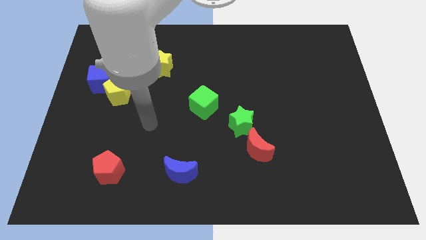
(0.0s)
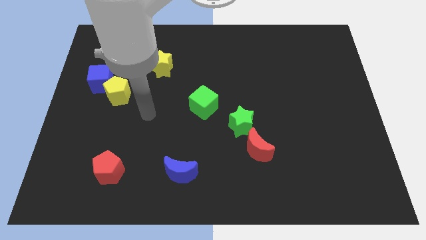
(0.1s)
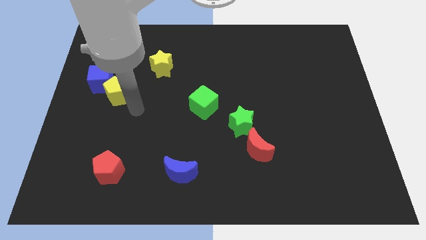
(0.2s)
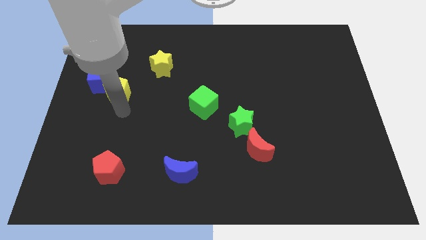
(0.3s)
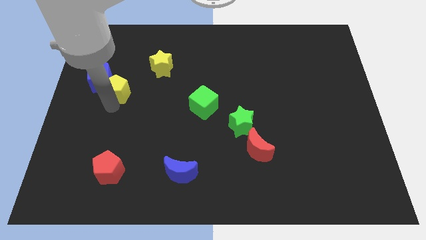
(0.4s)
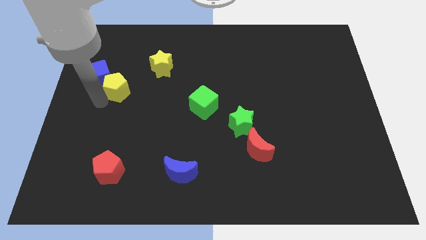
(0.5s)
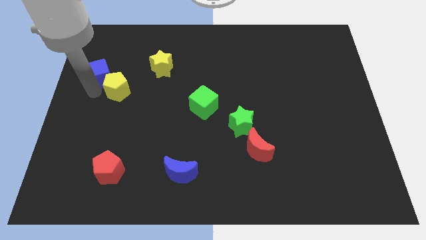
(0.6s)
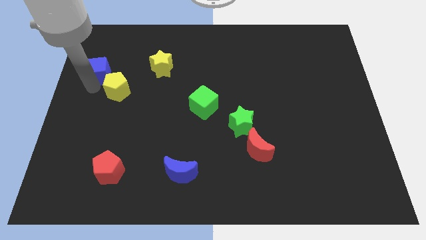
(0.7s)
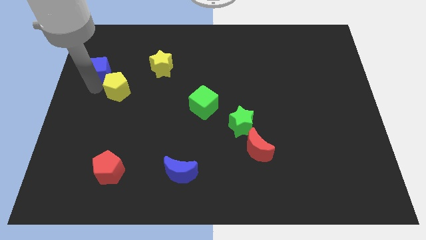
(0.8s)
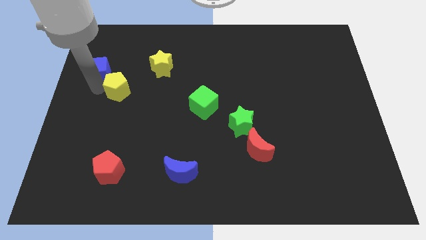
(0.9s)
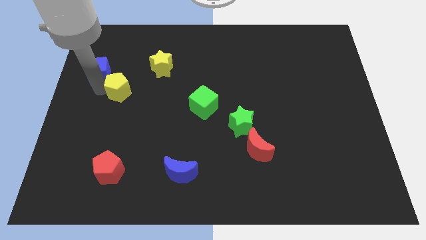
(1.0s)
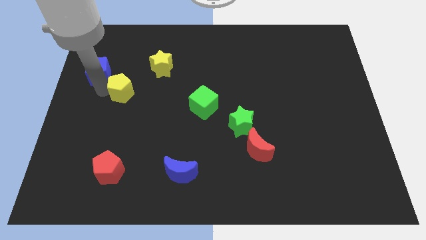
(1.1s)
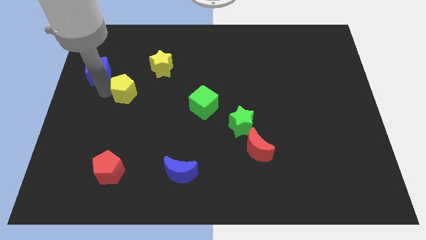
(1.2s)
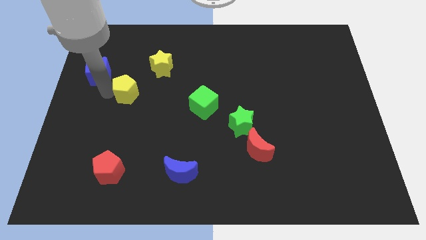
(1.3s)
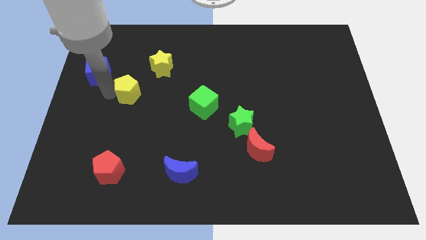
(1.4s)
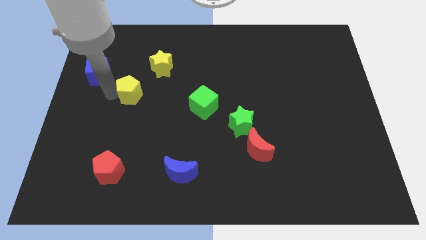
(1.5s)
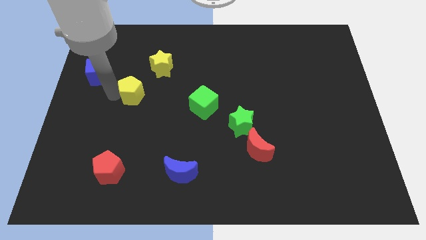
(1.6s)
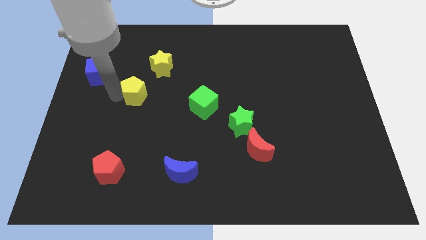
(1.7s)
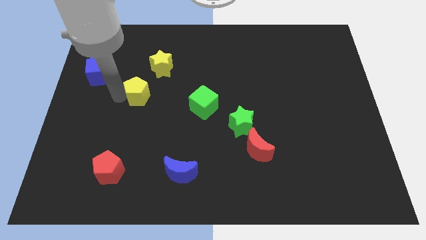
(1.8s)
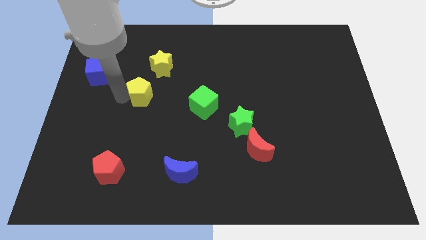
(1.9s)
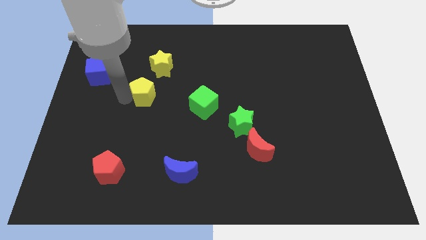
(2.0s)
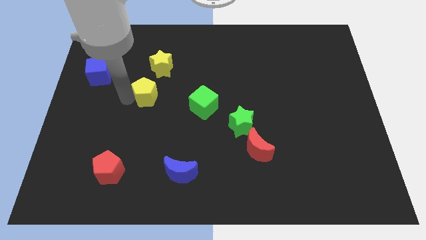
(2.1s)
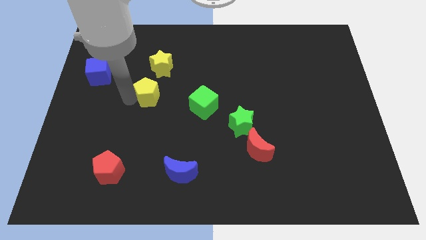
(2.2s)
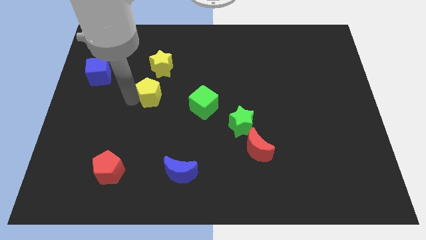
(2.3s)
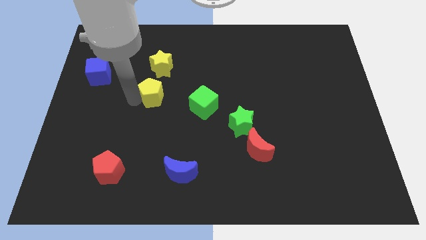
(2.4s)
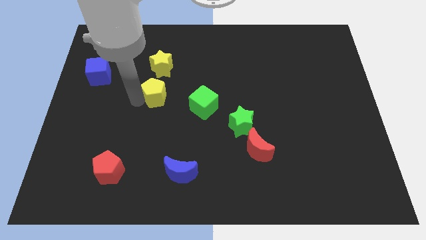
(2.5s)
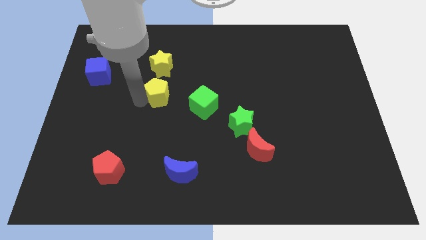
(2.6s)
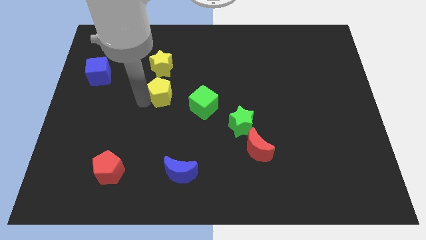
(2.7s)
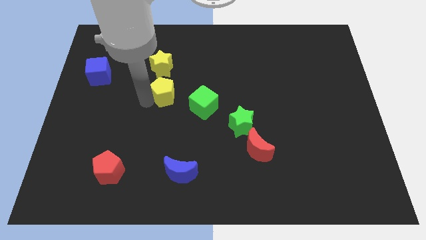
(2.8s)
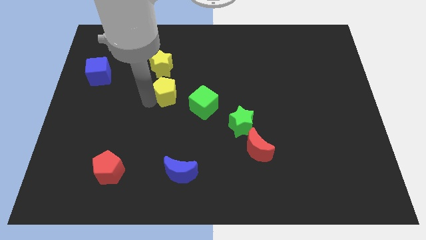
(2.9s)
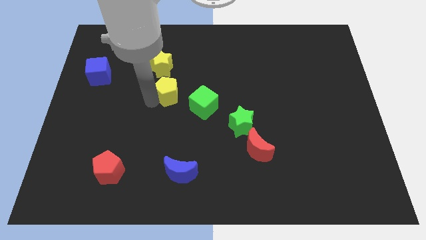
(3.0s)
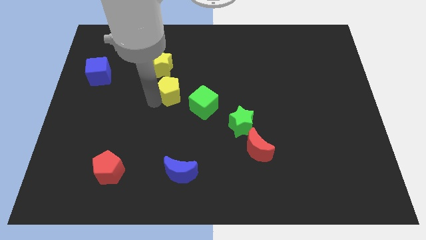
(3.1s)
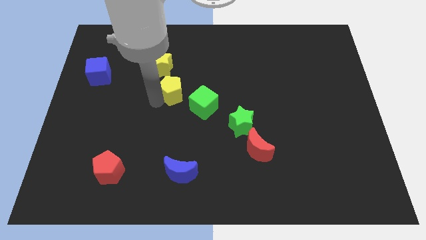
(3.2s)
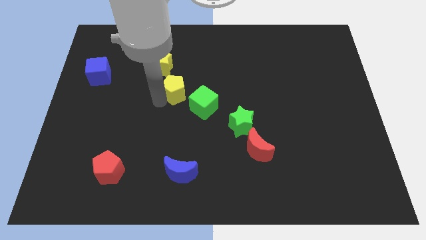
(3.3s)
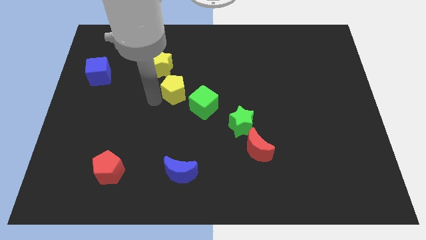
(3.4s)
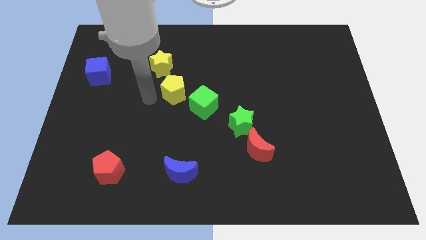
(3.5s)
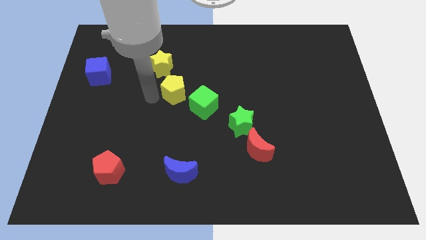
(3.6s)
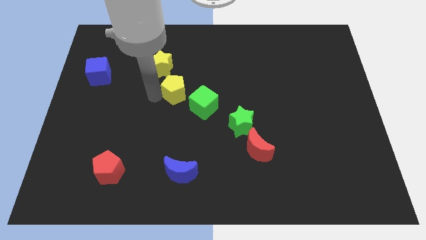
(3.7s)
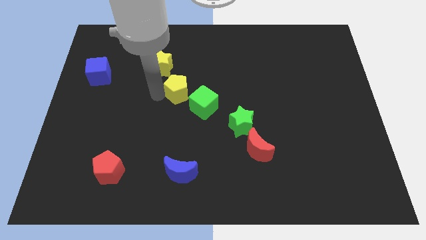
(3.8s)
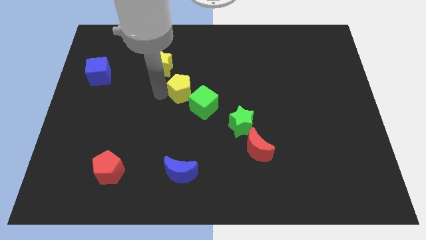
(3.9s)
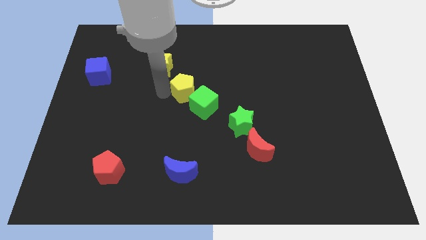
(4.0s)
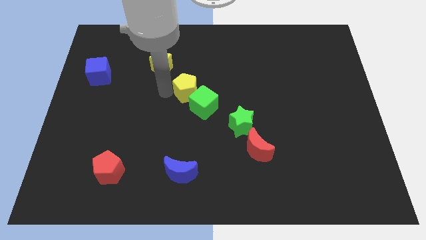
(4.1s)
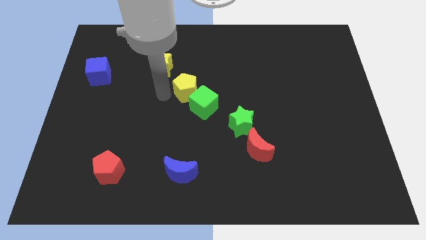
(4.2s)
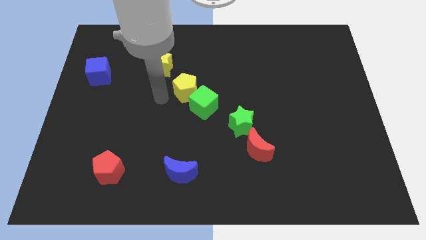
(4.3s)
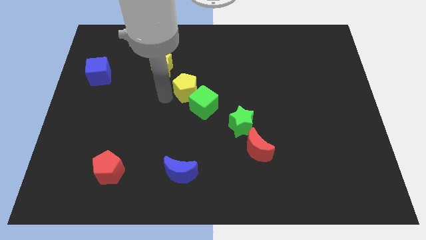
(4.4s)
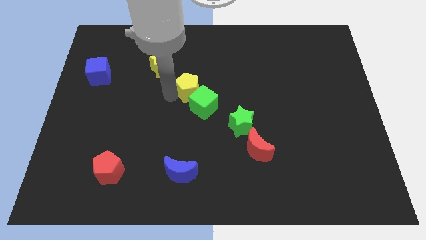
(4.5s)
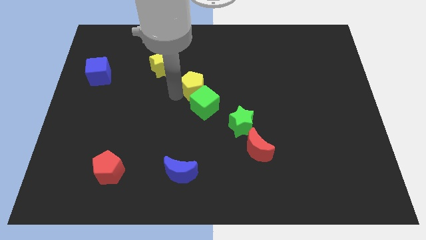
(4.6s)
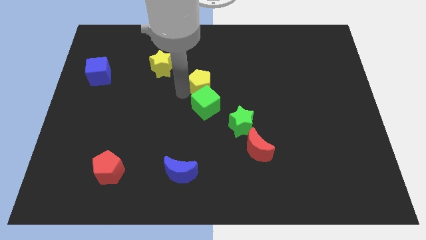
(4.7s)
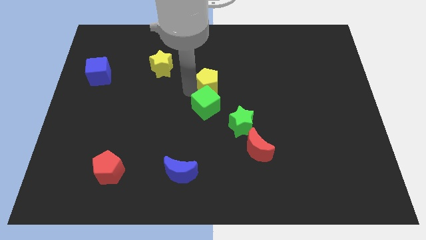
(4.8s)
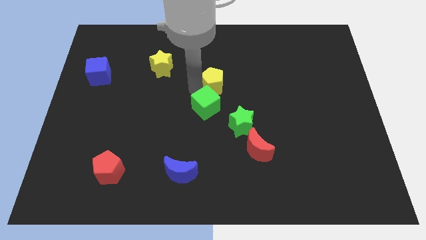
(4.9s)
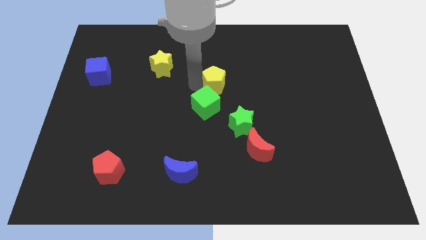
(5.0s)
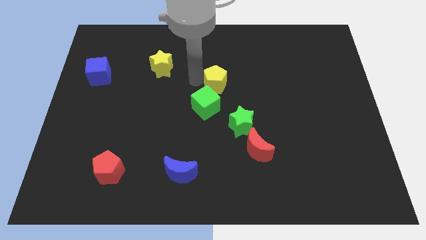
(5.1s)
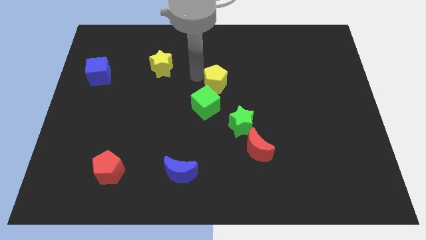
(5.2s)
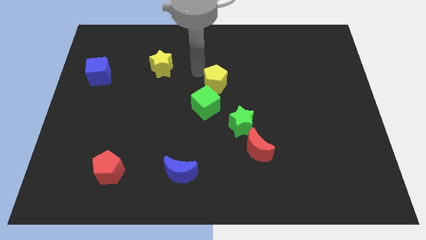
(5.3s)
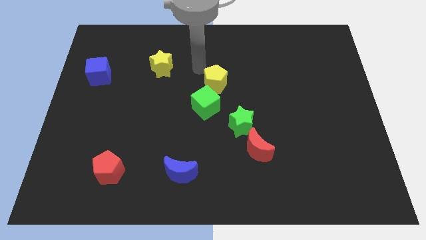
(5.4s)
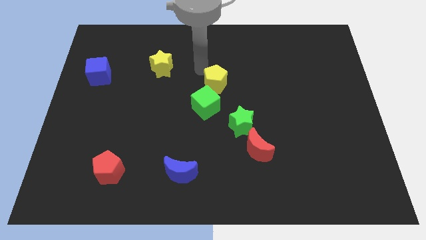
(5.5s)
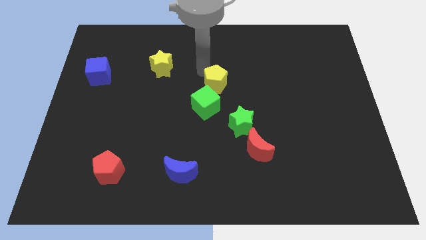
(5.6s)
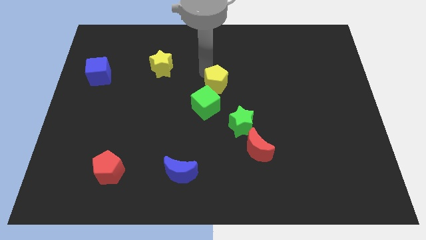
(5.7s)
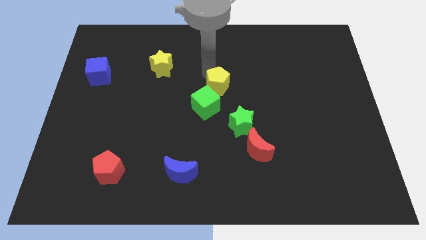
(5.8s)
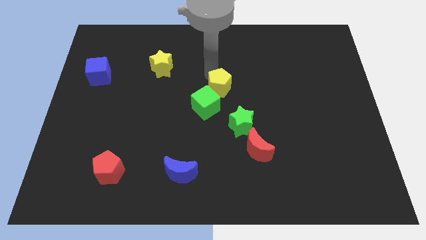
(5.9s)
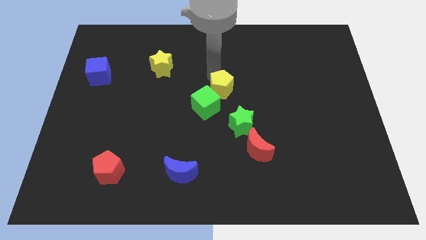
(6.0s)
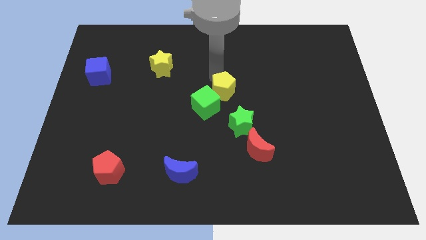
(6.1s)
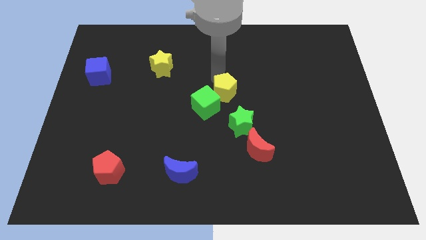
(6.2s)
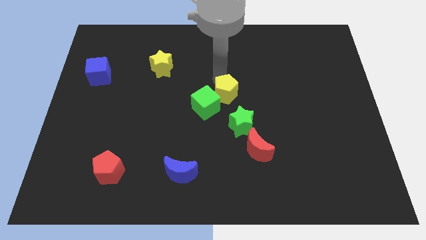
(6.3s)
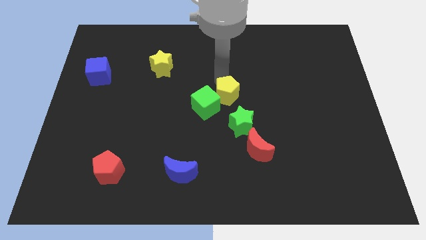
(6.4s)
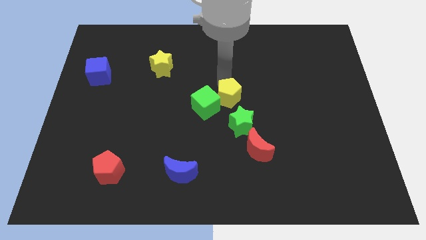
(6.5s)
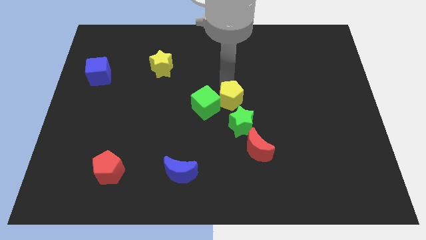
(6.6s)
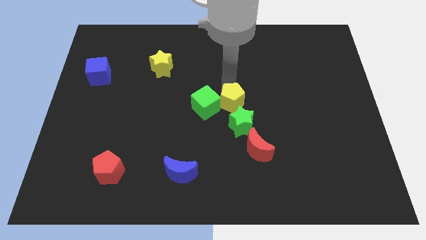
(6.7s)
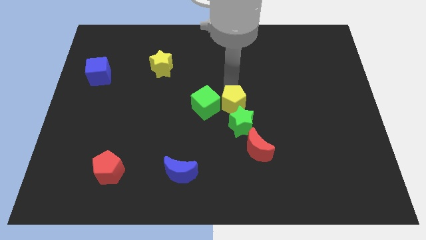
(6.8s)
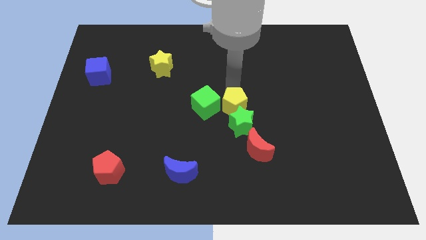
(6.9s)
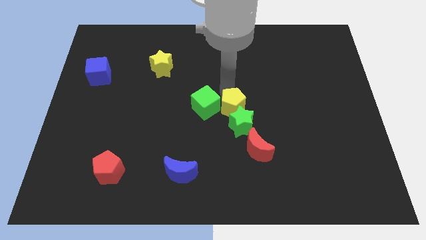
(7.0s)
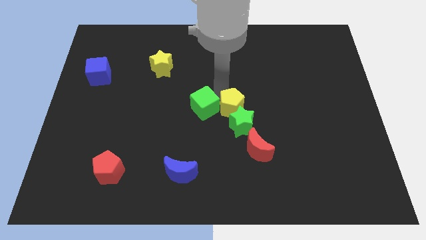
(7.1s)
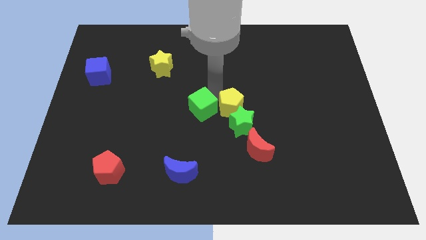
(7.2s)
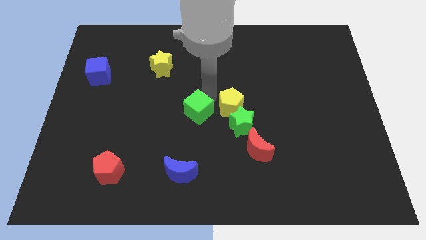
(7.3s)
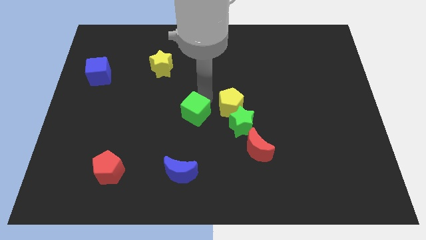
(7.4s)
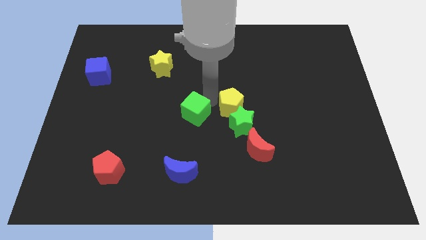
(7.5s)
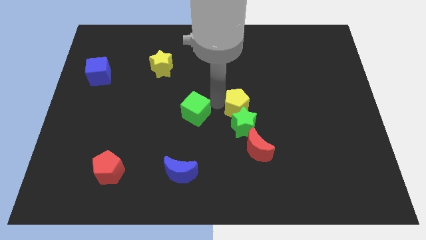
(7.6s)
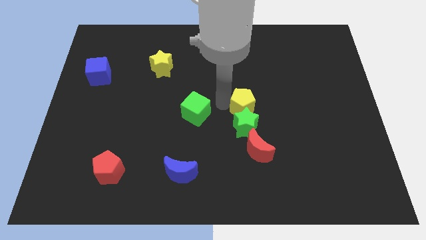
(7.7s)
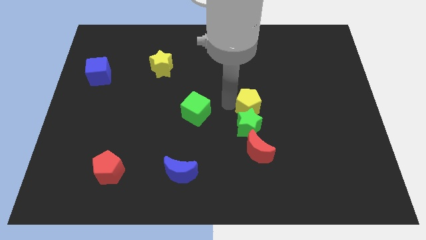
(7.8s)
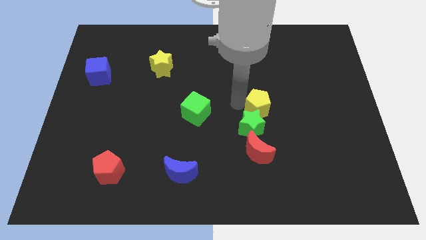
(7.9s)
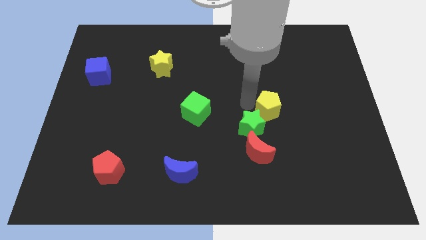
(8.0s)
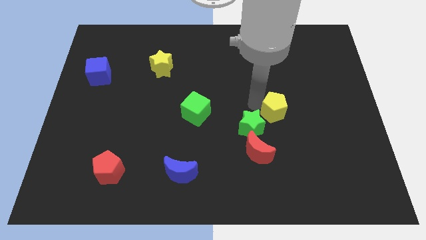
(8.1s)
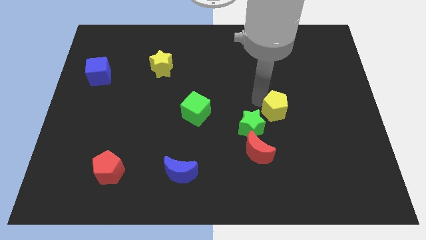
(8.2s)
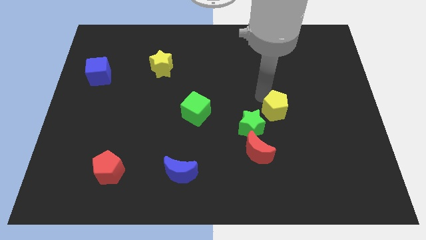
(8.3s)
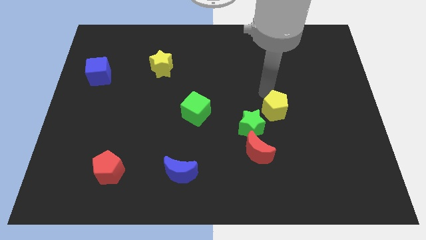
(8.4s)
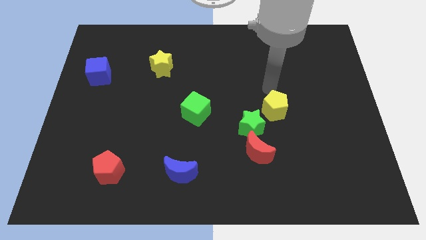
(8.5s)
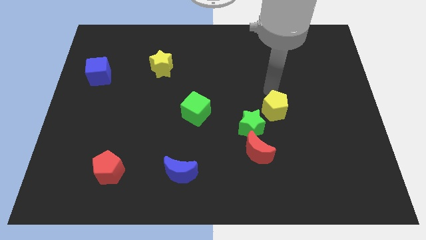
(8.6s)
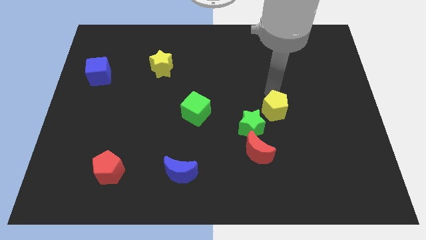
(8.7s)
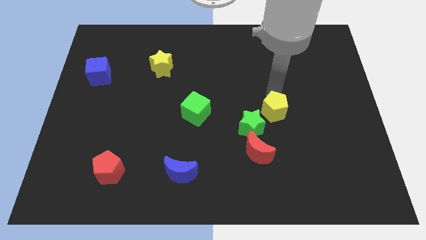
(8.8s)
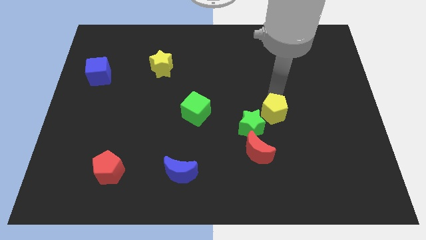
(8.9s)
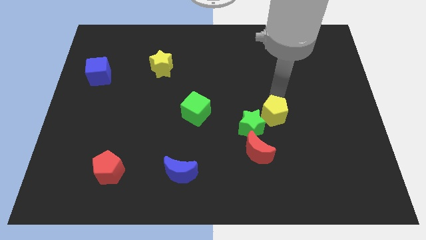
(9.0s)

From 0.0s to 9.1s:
move the yellow pentagon diagonally up and to the right of the red moon
